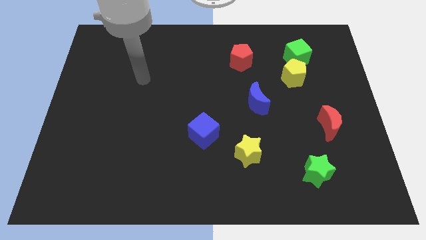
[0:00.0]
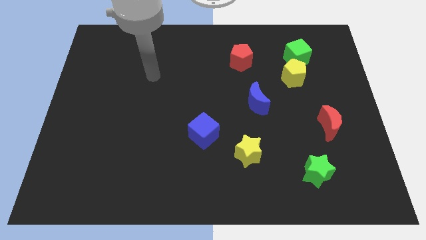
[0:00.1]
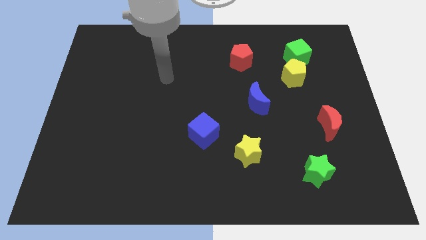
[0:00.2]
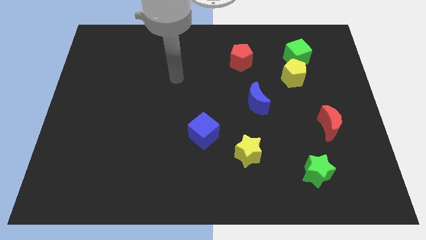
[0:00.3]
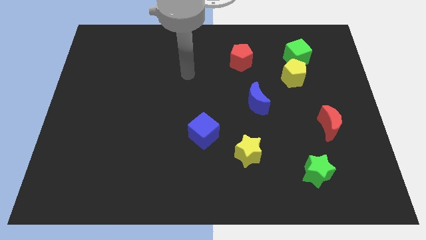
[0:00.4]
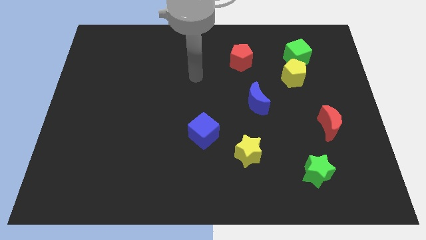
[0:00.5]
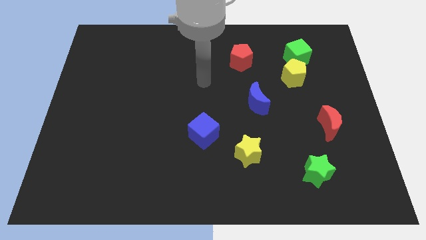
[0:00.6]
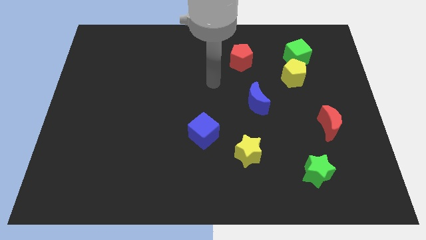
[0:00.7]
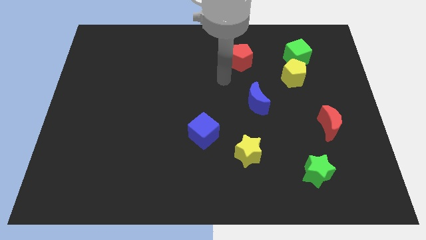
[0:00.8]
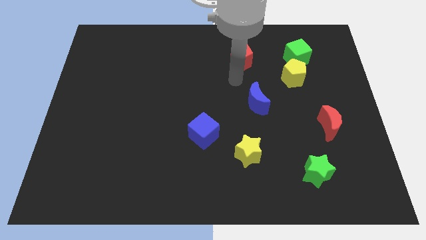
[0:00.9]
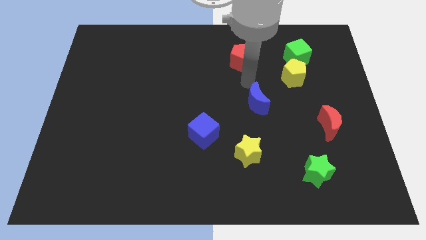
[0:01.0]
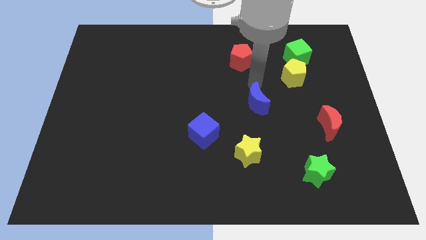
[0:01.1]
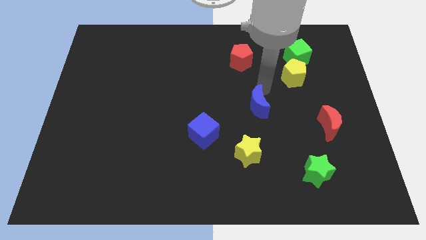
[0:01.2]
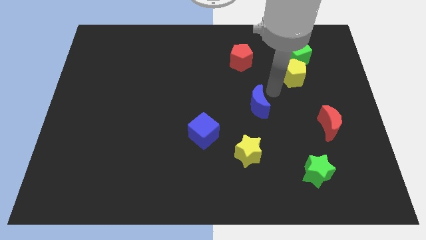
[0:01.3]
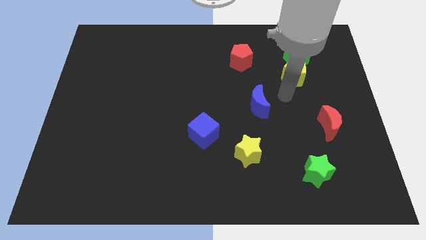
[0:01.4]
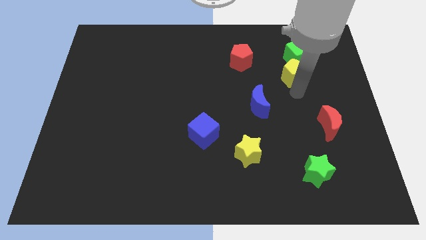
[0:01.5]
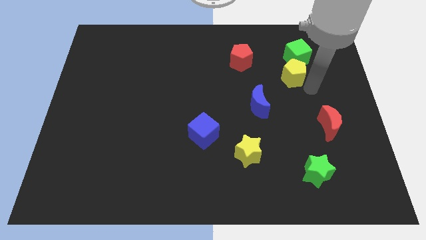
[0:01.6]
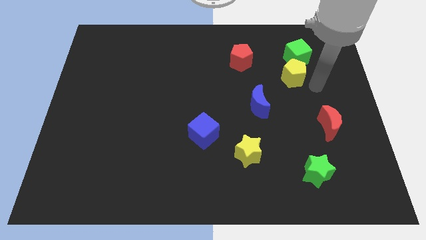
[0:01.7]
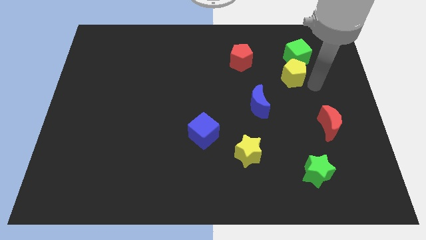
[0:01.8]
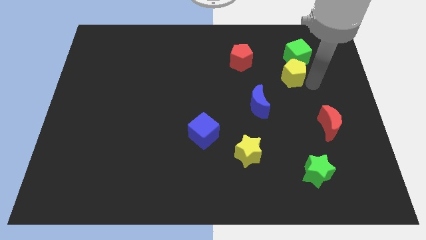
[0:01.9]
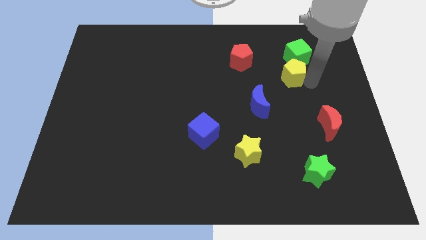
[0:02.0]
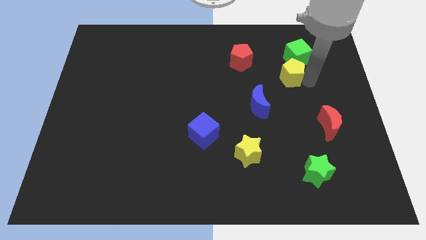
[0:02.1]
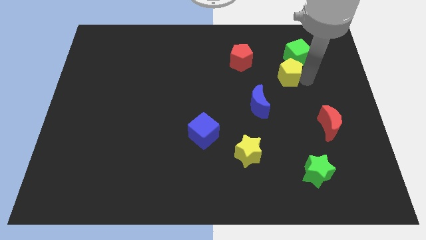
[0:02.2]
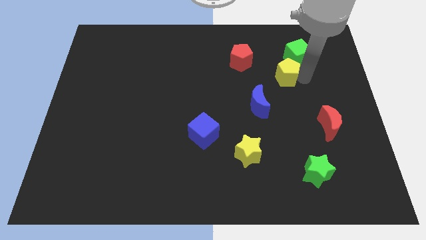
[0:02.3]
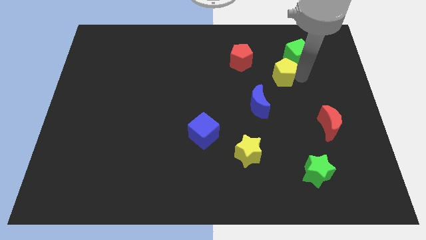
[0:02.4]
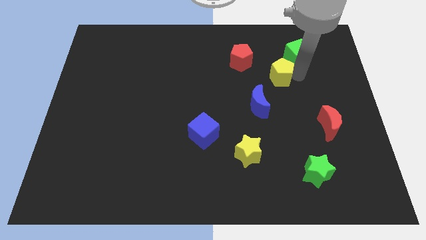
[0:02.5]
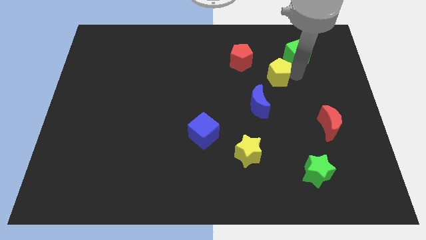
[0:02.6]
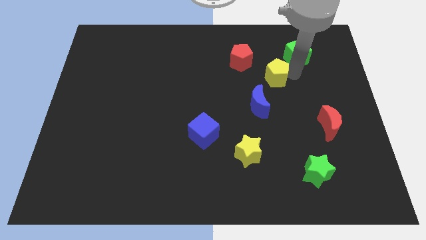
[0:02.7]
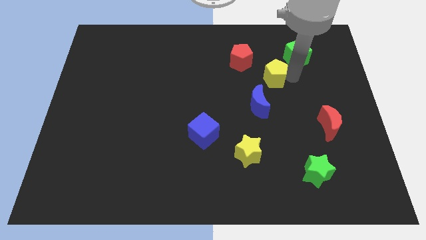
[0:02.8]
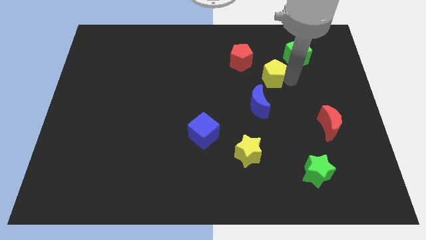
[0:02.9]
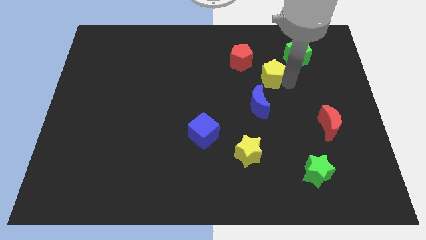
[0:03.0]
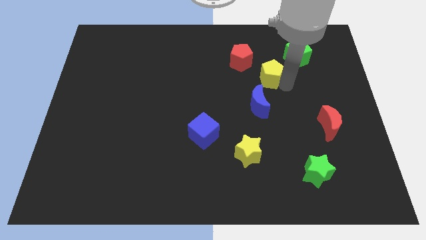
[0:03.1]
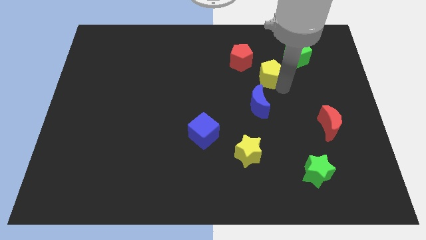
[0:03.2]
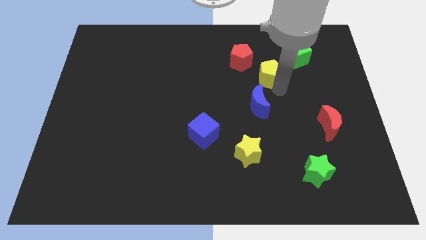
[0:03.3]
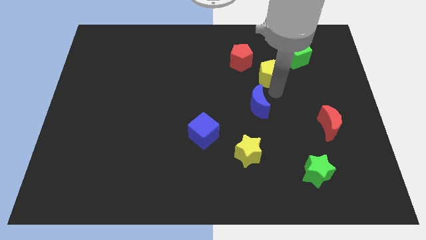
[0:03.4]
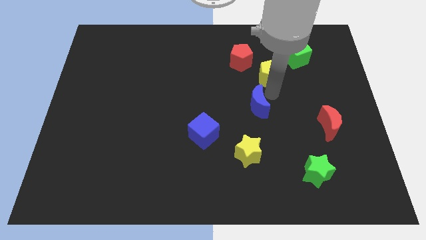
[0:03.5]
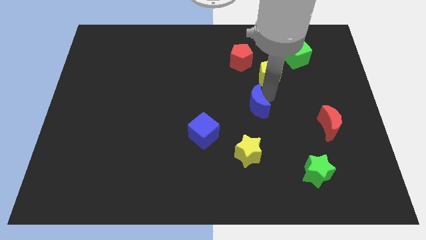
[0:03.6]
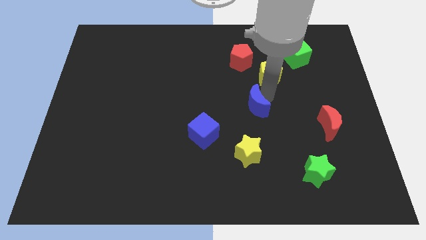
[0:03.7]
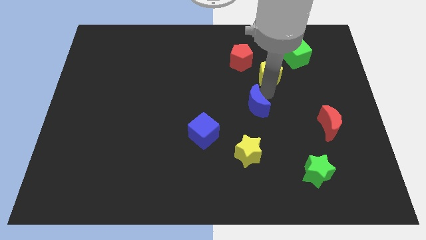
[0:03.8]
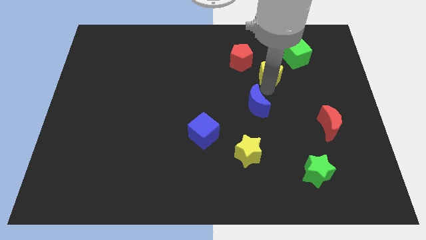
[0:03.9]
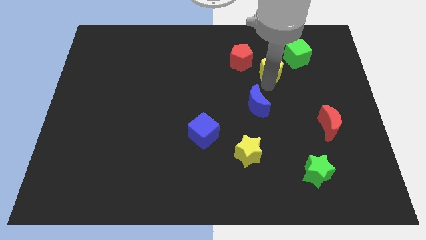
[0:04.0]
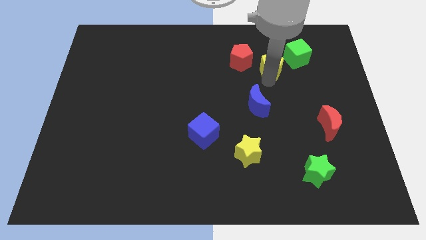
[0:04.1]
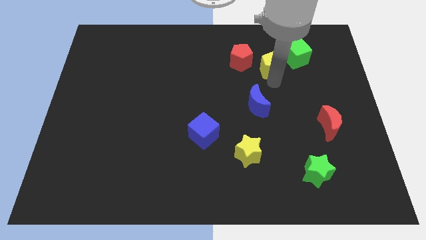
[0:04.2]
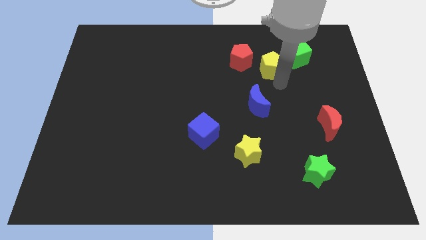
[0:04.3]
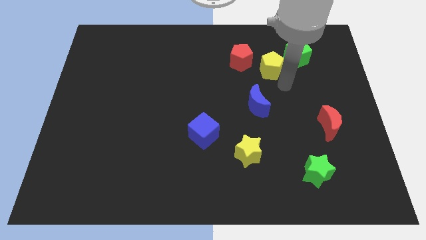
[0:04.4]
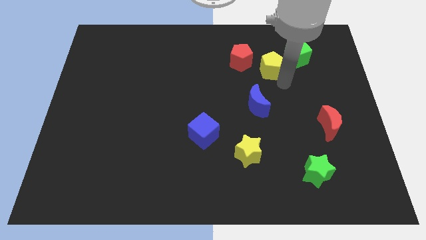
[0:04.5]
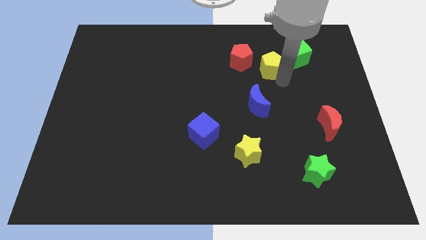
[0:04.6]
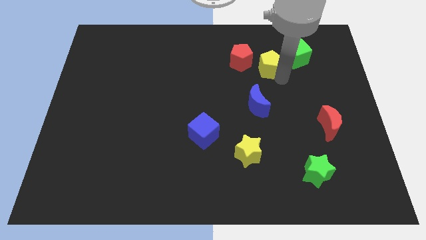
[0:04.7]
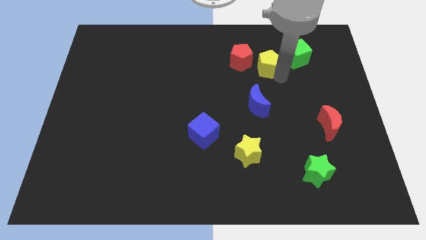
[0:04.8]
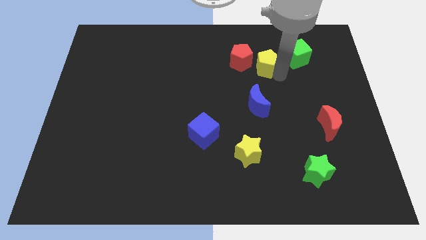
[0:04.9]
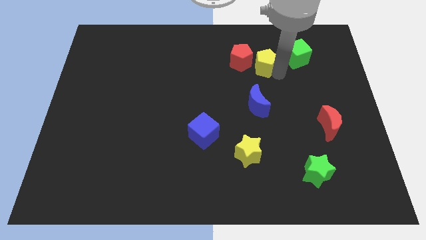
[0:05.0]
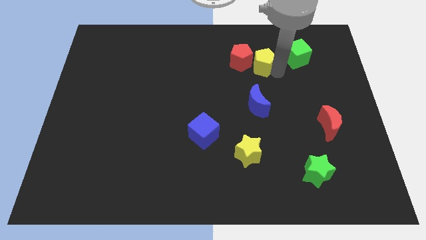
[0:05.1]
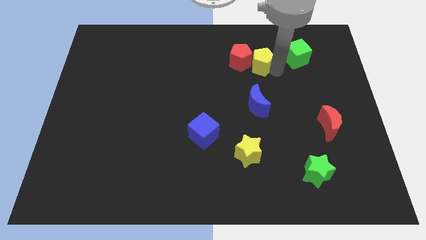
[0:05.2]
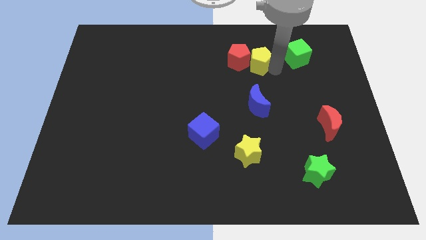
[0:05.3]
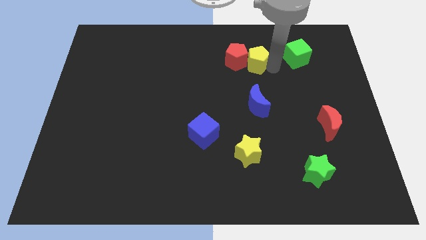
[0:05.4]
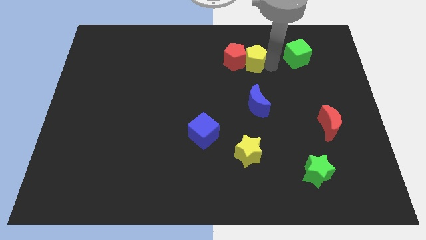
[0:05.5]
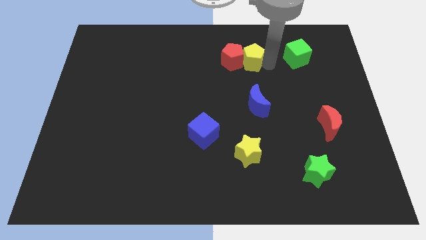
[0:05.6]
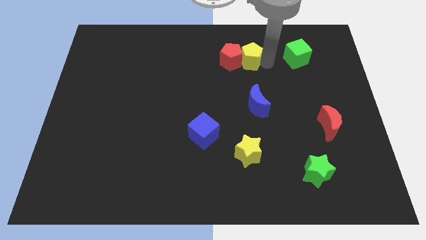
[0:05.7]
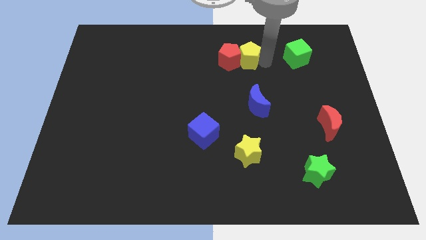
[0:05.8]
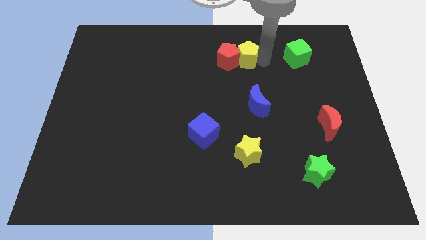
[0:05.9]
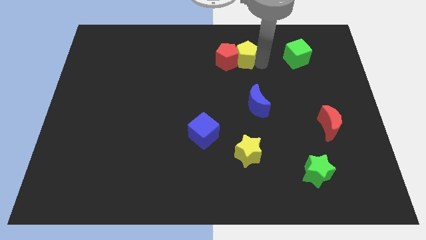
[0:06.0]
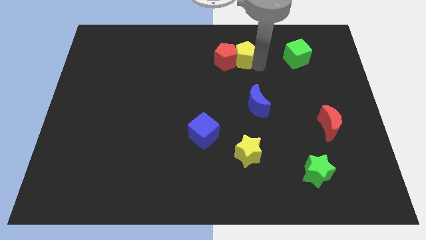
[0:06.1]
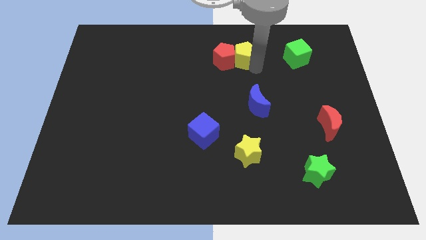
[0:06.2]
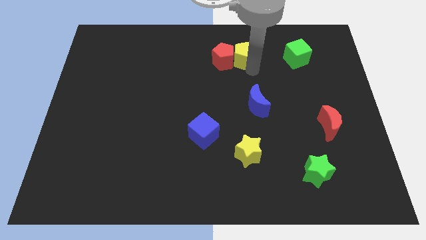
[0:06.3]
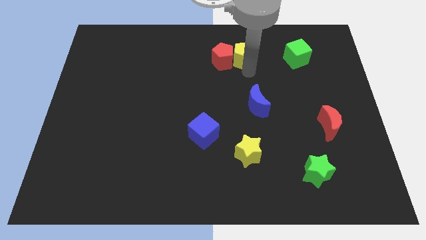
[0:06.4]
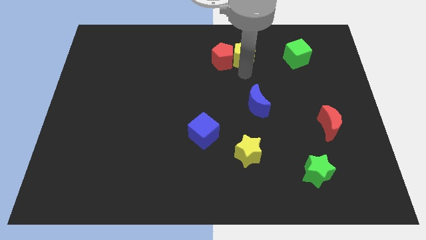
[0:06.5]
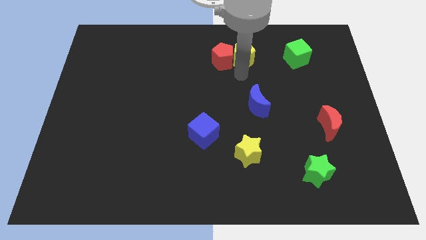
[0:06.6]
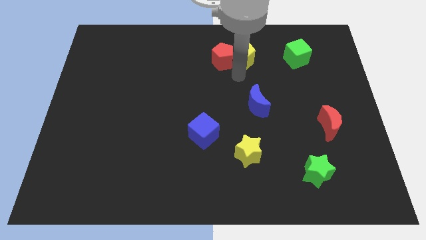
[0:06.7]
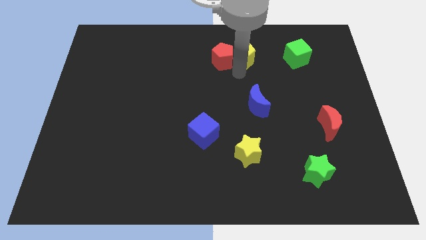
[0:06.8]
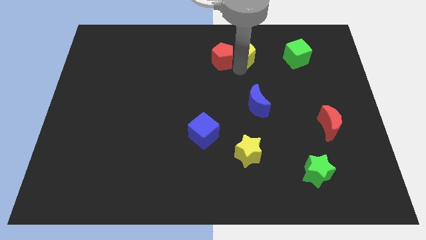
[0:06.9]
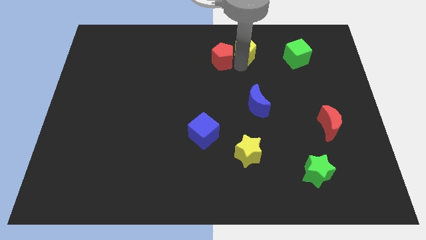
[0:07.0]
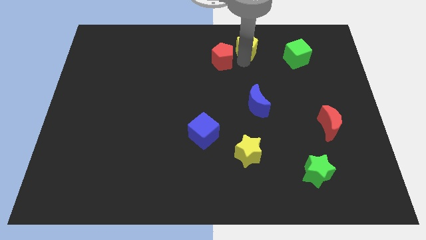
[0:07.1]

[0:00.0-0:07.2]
push the yellow pentagon to the towards your base
